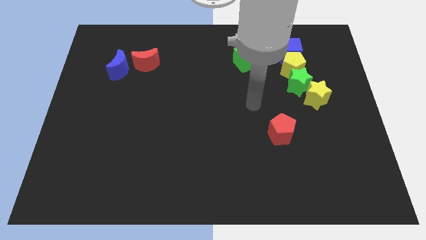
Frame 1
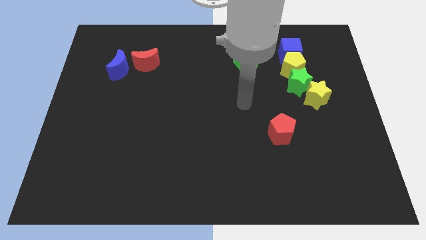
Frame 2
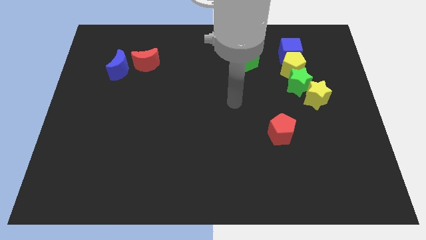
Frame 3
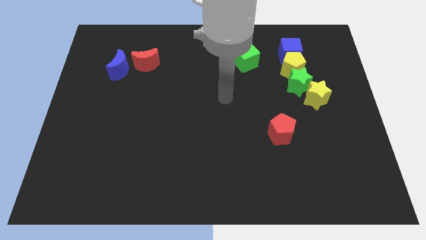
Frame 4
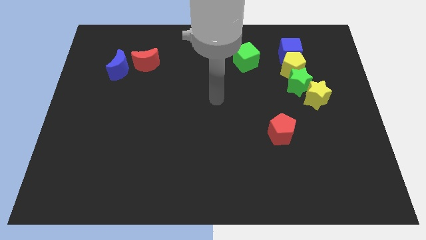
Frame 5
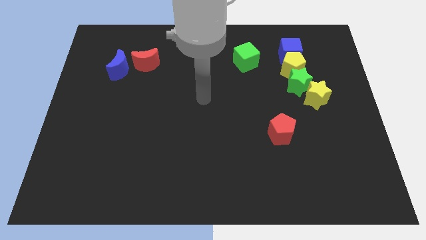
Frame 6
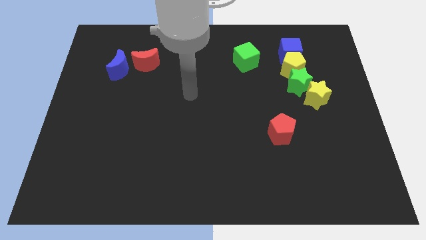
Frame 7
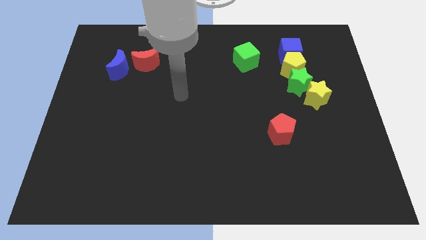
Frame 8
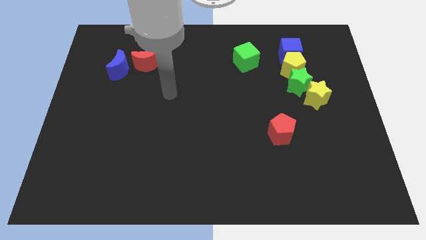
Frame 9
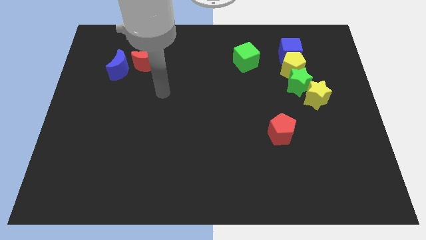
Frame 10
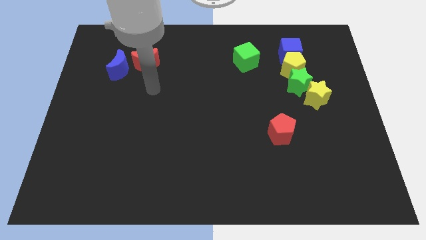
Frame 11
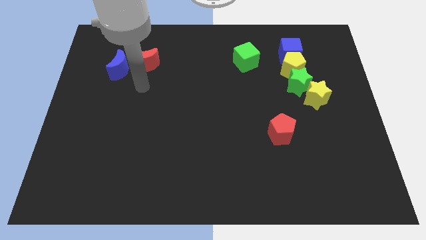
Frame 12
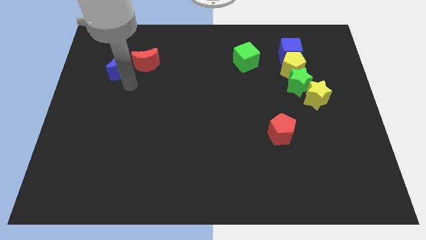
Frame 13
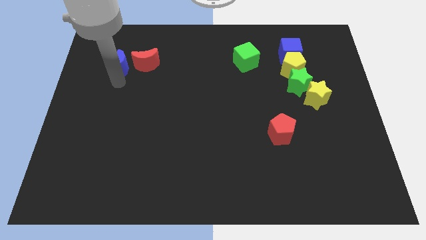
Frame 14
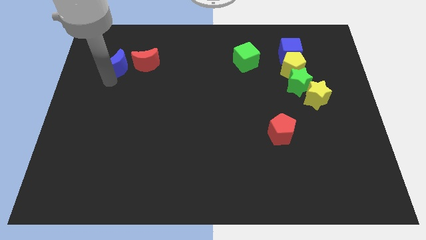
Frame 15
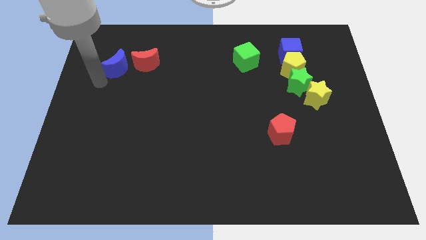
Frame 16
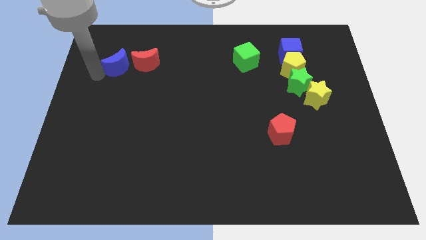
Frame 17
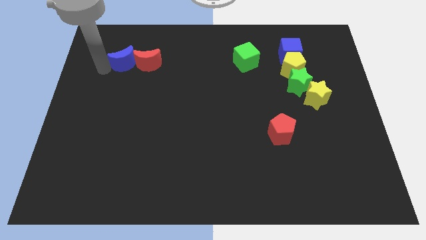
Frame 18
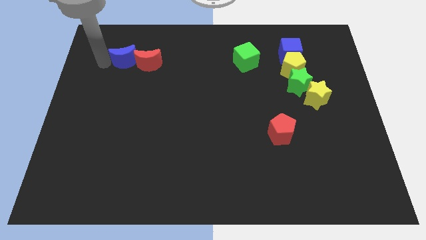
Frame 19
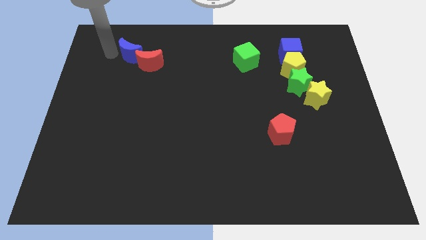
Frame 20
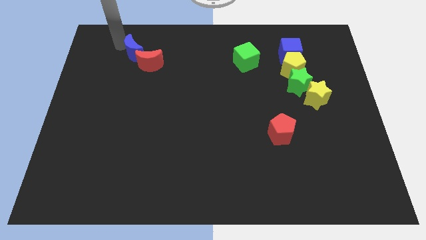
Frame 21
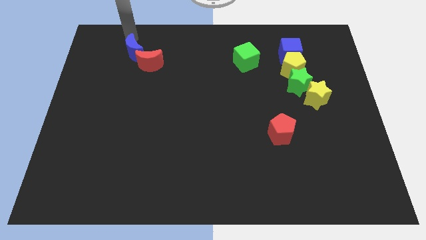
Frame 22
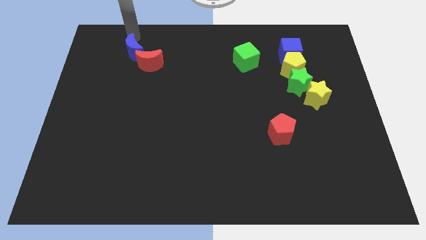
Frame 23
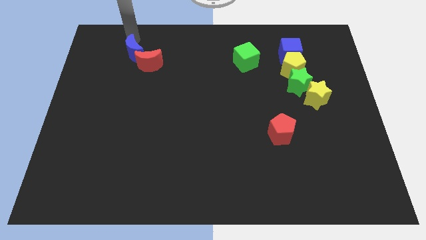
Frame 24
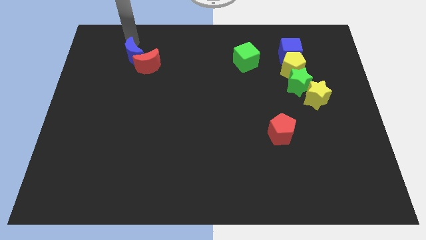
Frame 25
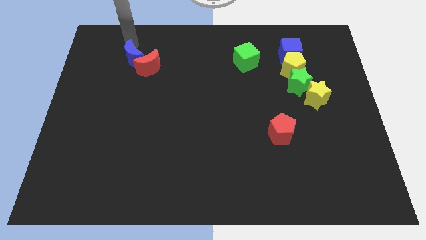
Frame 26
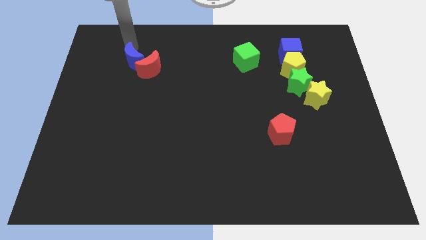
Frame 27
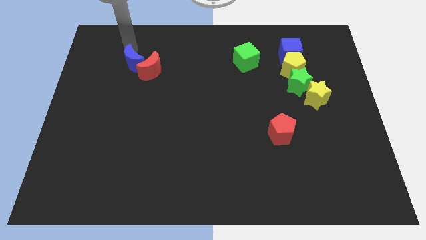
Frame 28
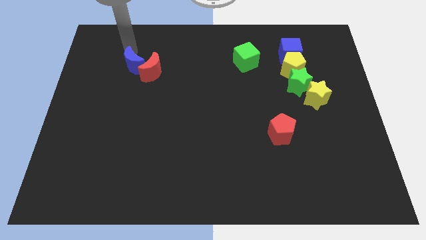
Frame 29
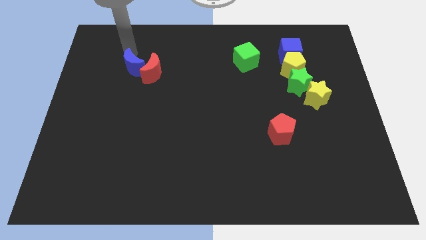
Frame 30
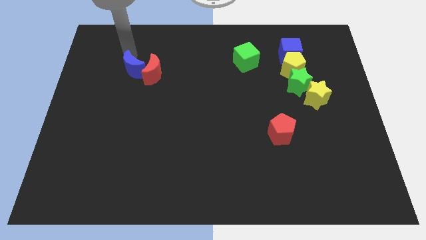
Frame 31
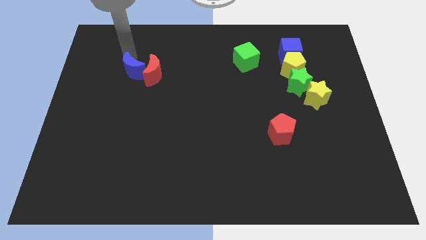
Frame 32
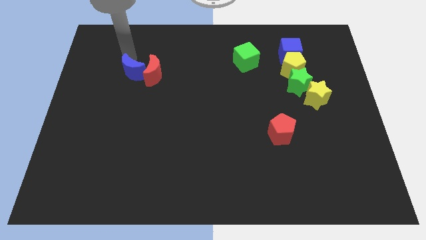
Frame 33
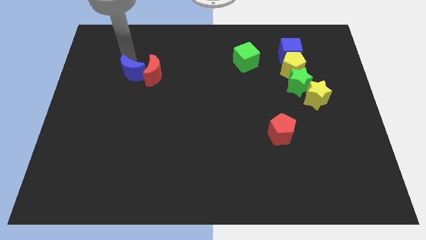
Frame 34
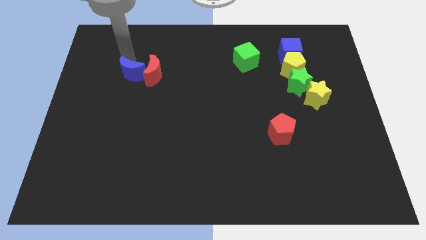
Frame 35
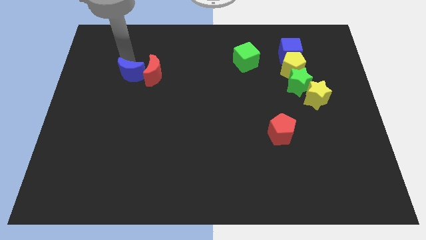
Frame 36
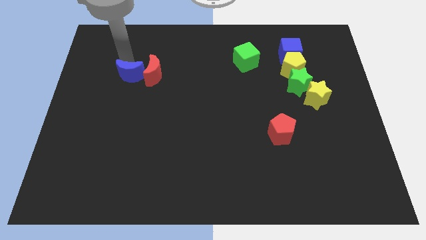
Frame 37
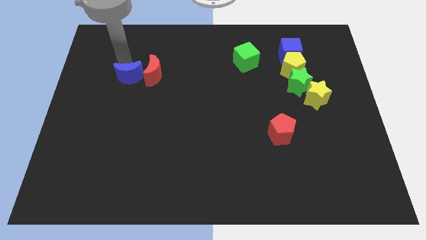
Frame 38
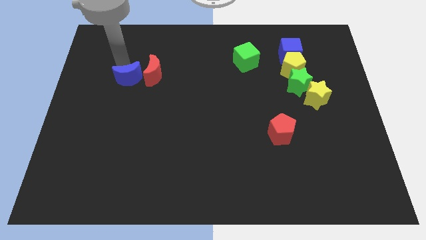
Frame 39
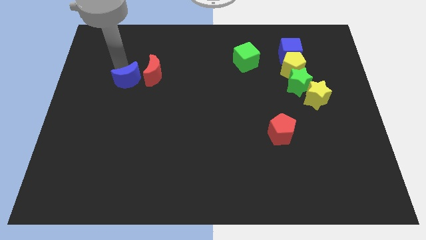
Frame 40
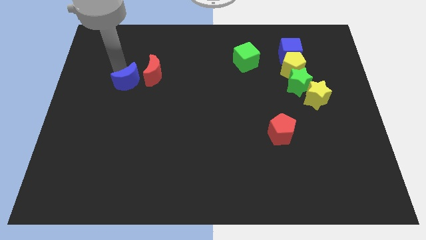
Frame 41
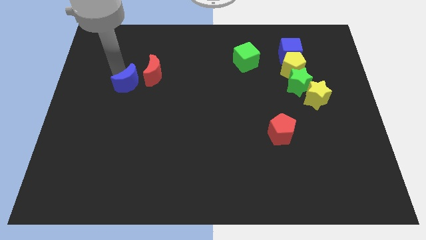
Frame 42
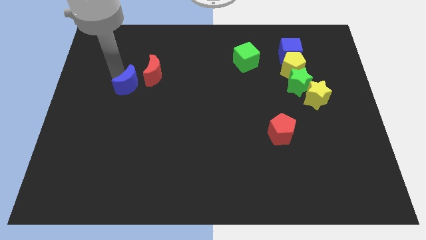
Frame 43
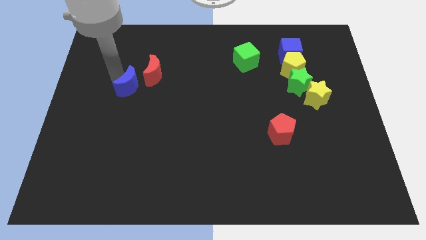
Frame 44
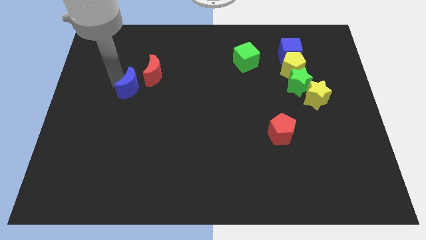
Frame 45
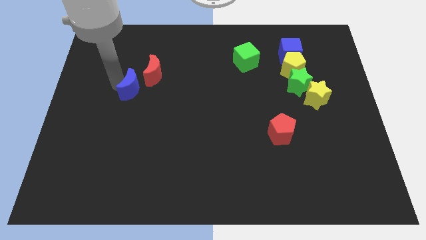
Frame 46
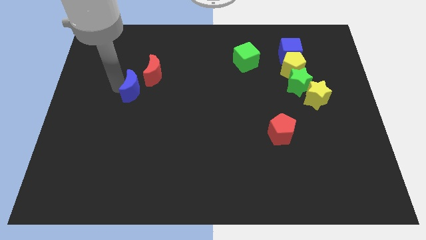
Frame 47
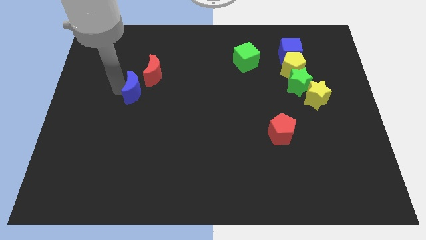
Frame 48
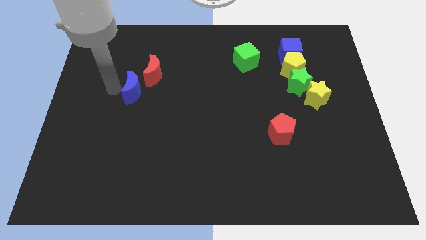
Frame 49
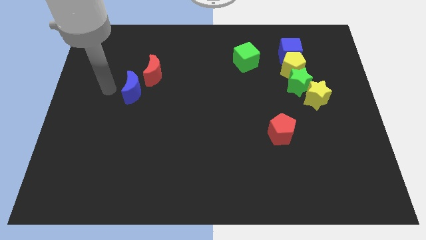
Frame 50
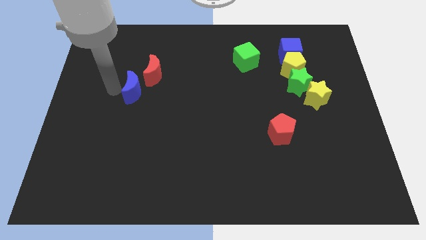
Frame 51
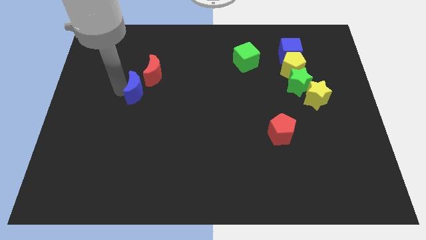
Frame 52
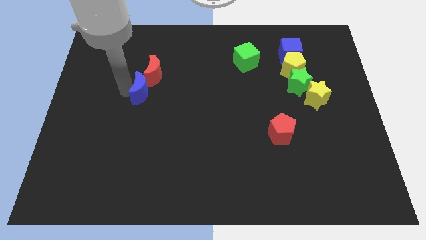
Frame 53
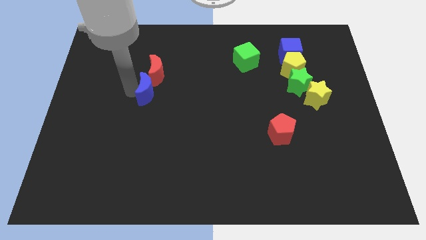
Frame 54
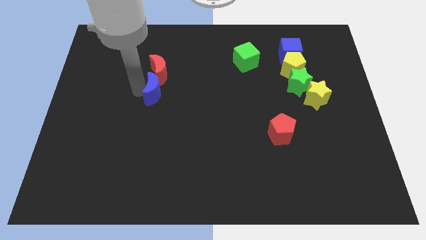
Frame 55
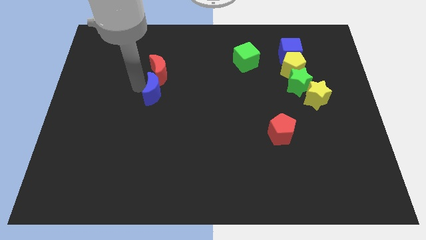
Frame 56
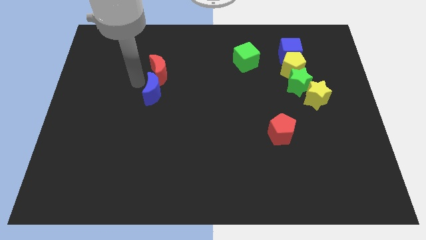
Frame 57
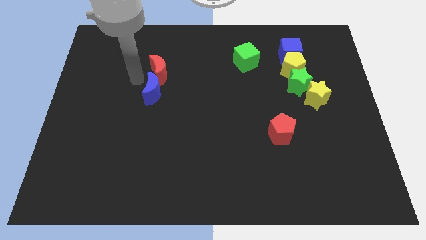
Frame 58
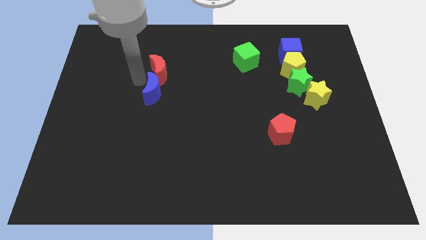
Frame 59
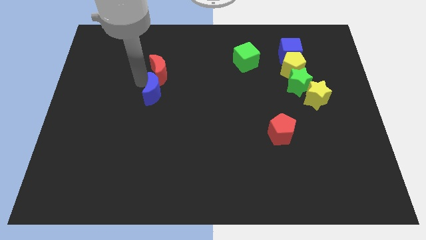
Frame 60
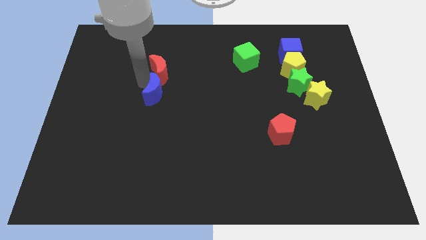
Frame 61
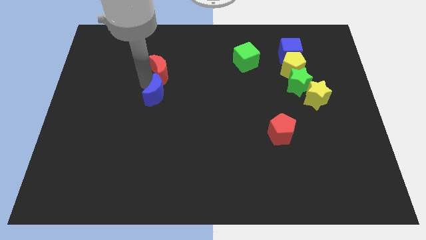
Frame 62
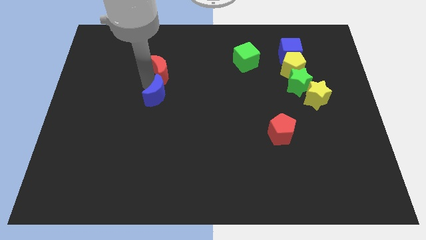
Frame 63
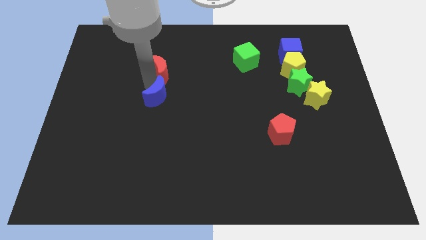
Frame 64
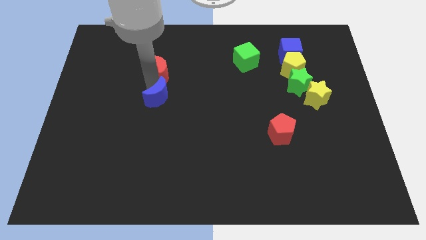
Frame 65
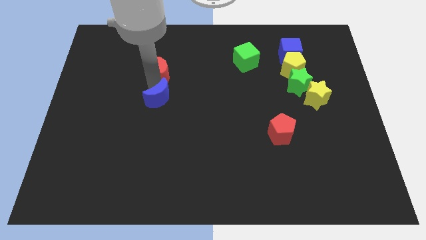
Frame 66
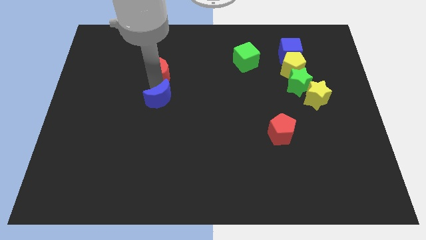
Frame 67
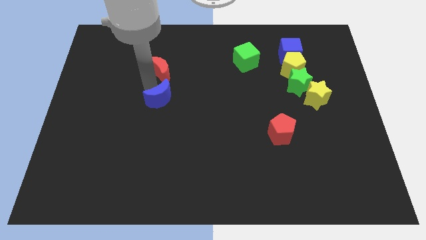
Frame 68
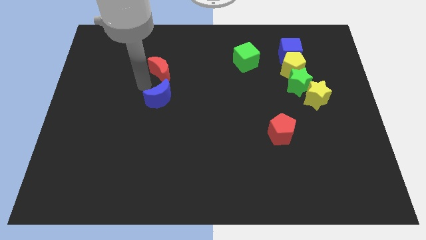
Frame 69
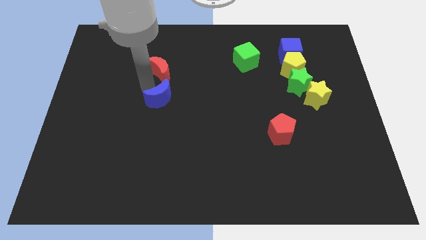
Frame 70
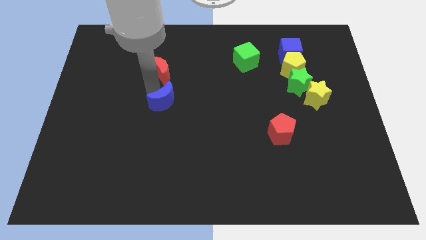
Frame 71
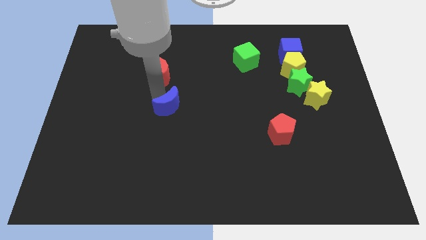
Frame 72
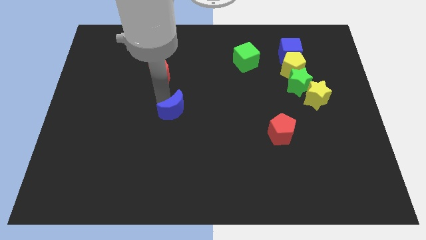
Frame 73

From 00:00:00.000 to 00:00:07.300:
slide the blue moon down and right

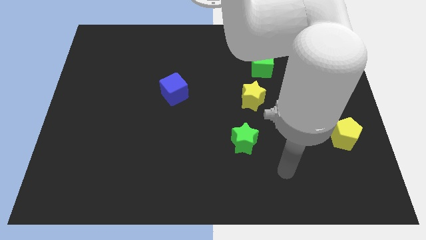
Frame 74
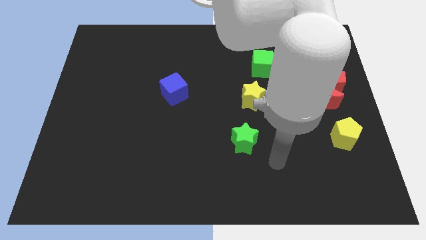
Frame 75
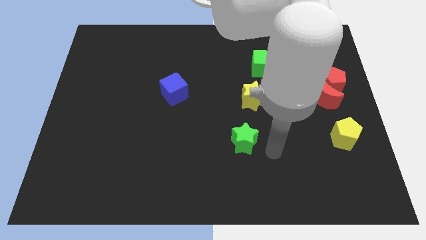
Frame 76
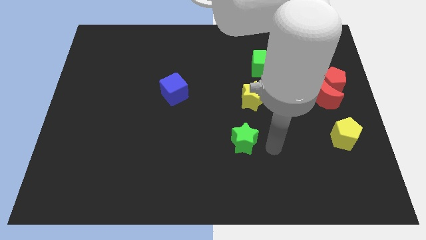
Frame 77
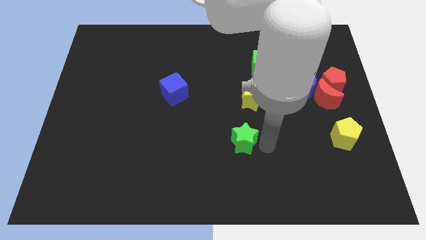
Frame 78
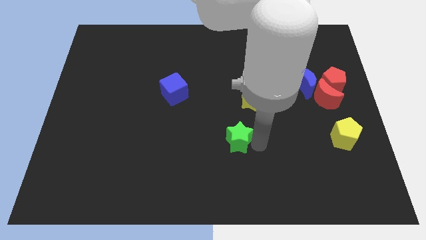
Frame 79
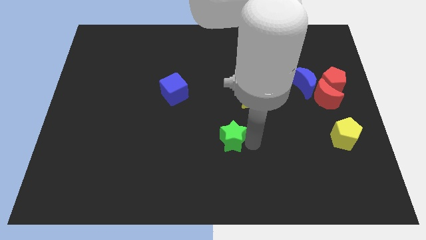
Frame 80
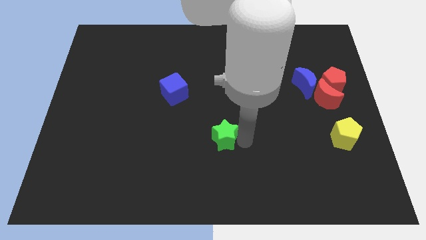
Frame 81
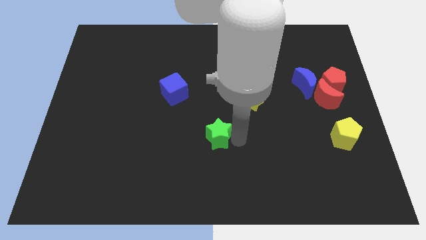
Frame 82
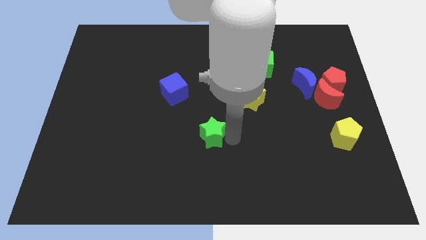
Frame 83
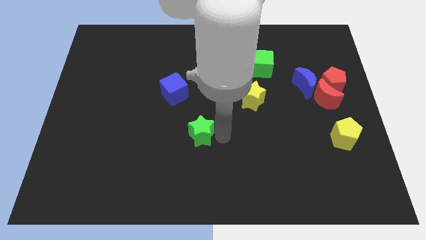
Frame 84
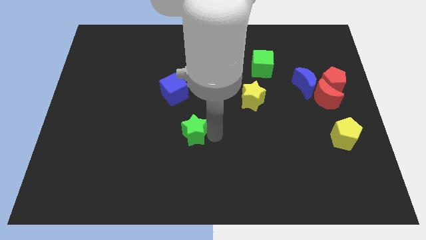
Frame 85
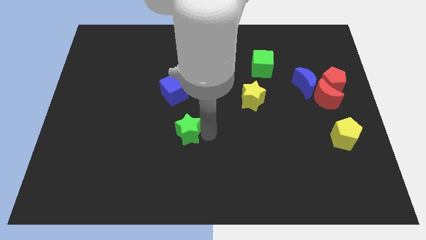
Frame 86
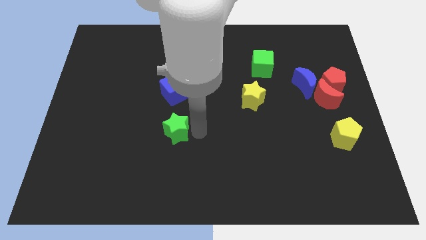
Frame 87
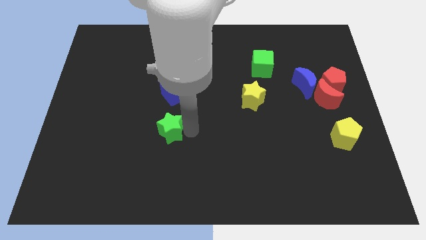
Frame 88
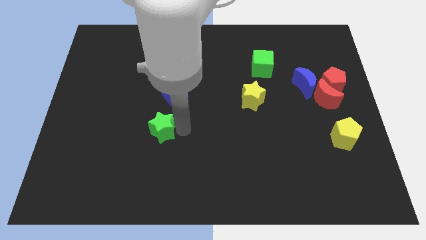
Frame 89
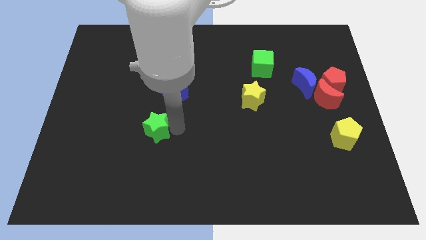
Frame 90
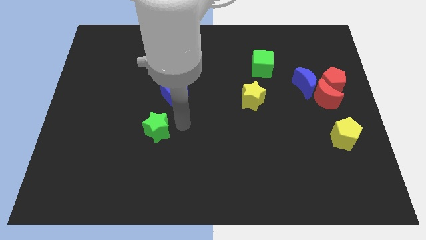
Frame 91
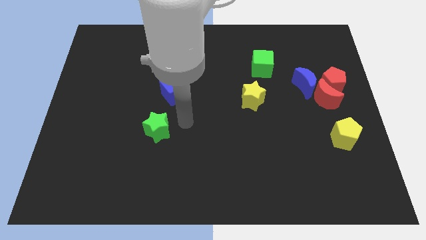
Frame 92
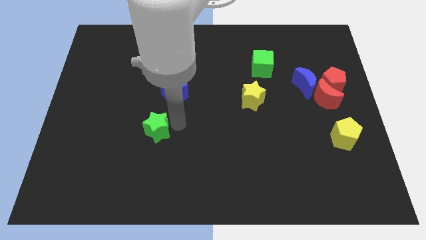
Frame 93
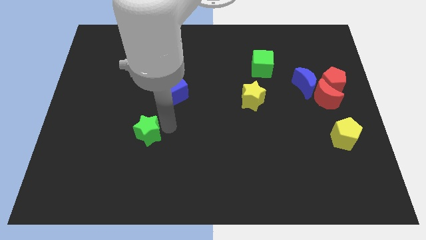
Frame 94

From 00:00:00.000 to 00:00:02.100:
slide the green star left
